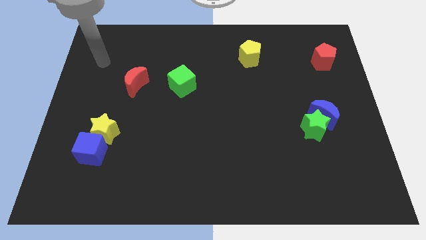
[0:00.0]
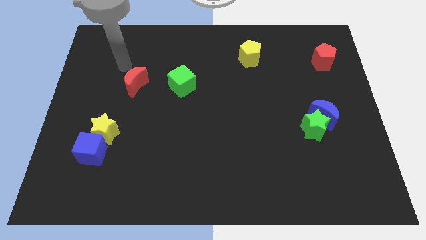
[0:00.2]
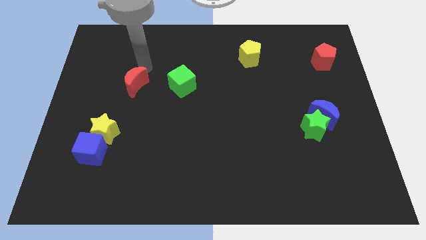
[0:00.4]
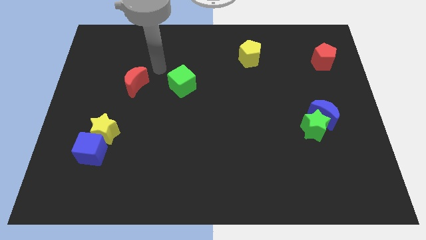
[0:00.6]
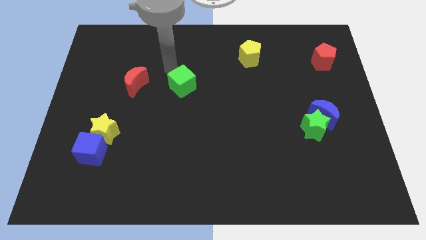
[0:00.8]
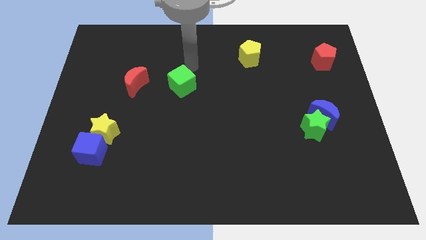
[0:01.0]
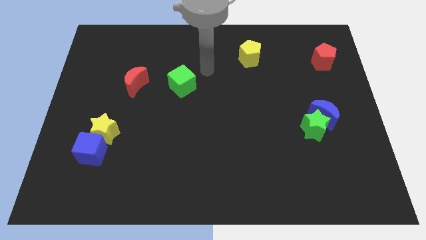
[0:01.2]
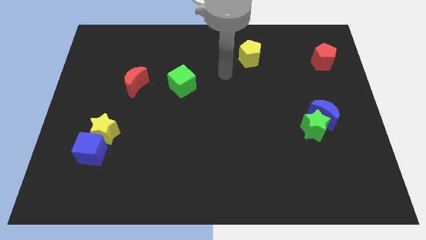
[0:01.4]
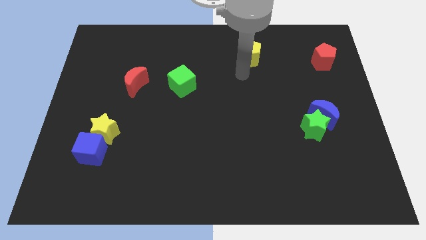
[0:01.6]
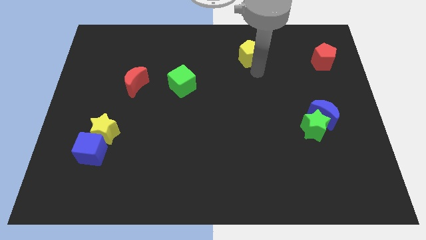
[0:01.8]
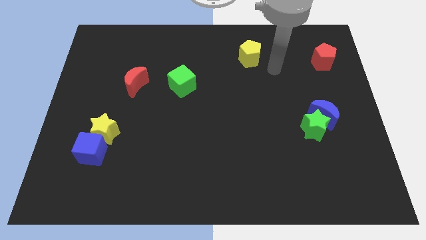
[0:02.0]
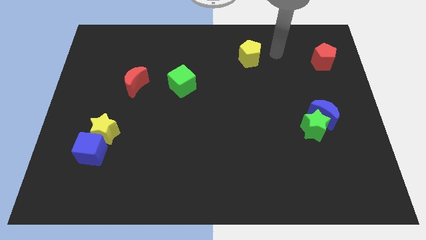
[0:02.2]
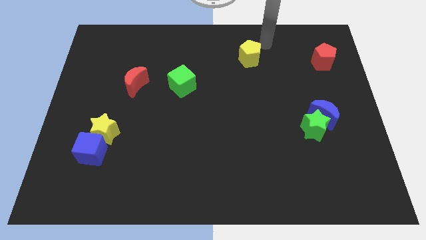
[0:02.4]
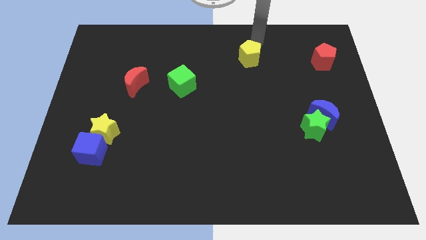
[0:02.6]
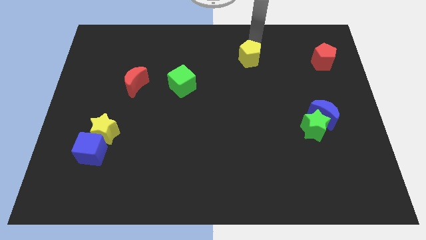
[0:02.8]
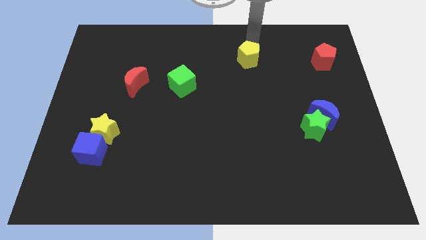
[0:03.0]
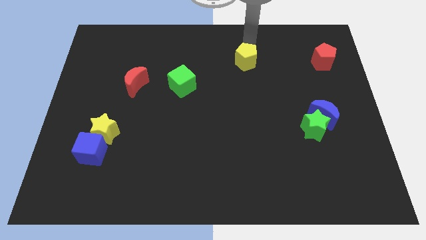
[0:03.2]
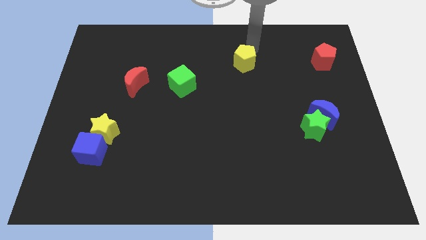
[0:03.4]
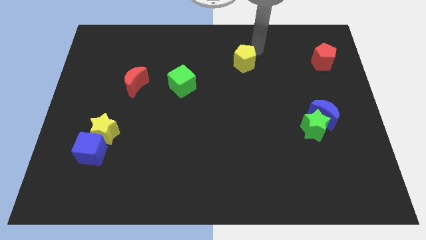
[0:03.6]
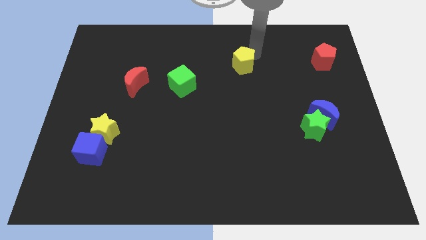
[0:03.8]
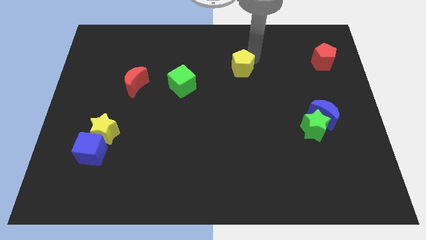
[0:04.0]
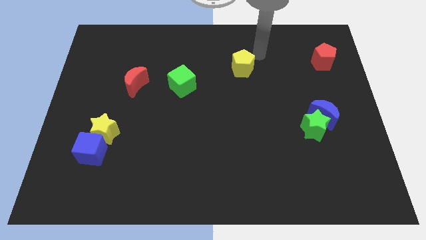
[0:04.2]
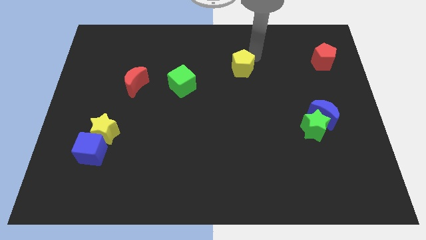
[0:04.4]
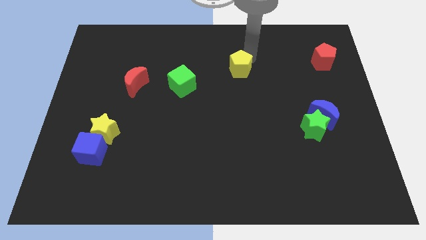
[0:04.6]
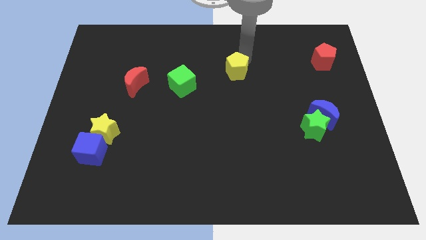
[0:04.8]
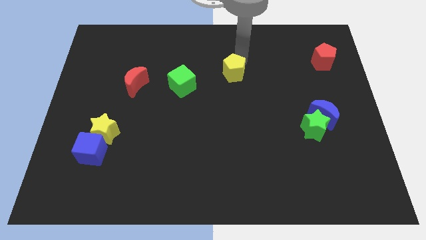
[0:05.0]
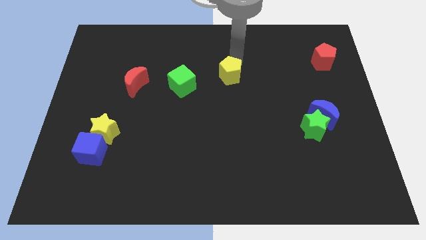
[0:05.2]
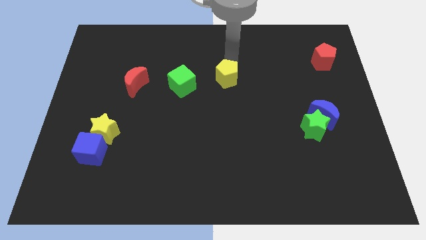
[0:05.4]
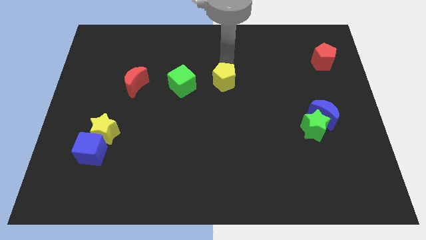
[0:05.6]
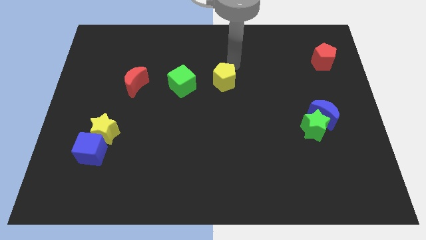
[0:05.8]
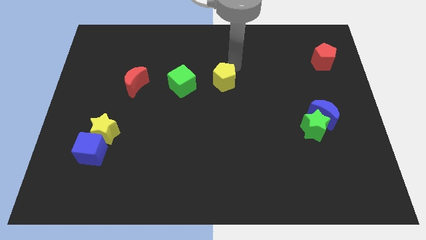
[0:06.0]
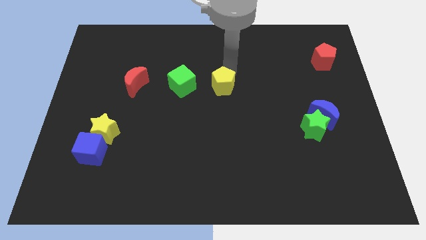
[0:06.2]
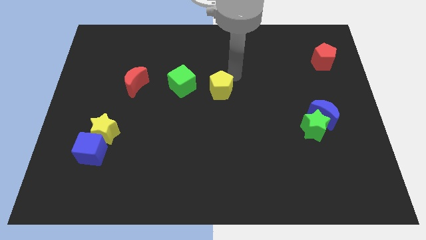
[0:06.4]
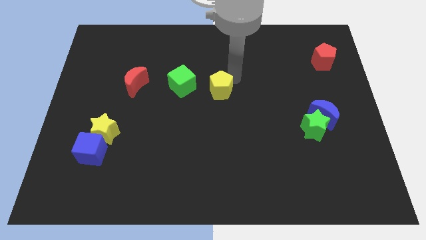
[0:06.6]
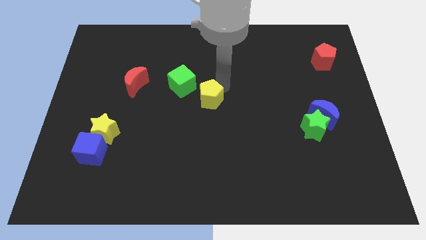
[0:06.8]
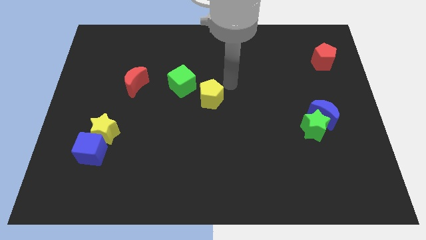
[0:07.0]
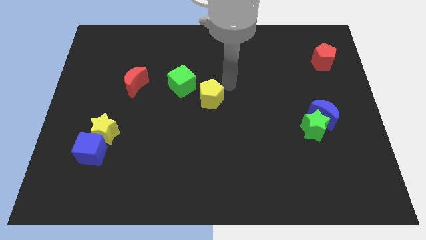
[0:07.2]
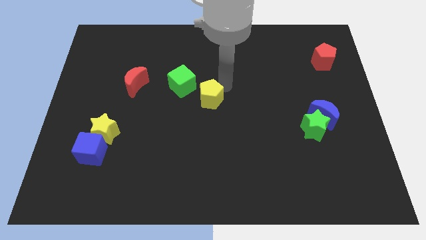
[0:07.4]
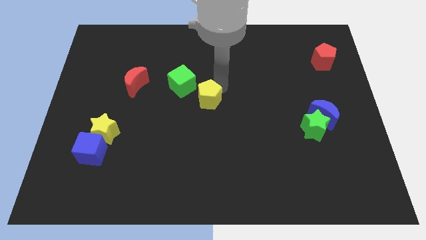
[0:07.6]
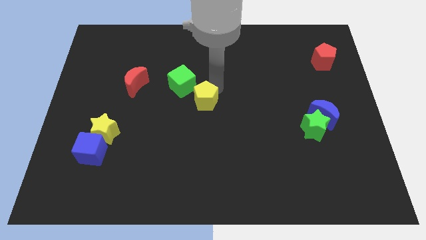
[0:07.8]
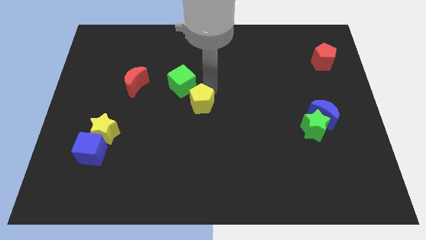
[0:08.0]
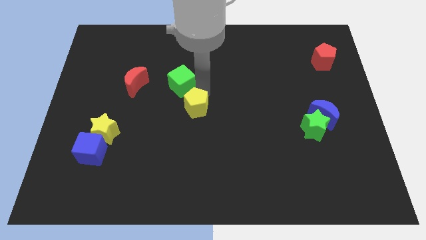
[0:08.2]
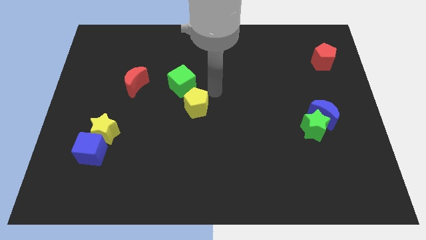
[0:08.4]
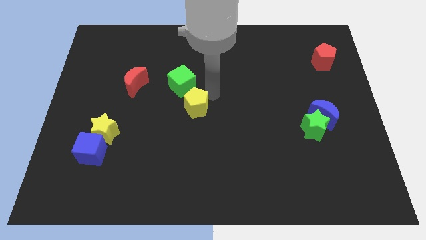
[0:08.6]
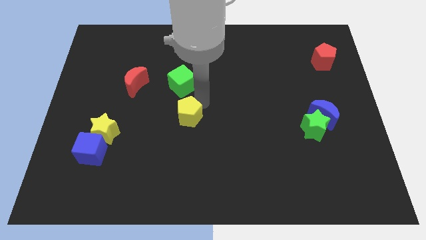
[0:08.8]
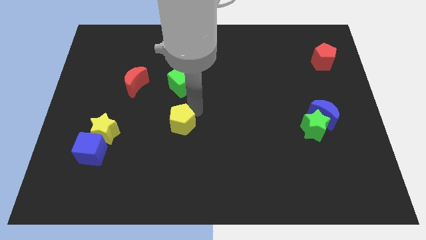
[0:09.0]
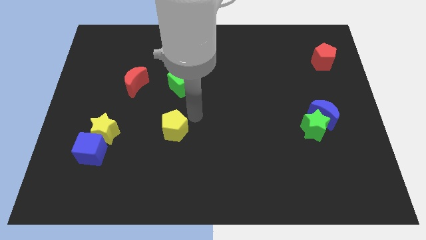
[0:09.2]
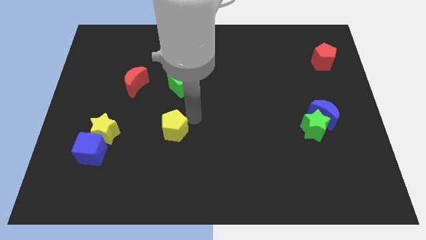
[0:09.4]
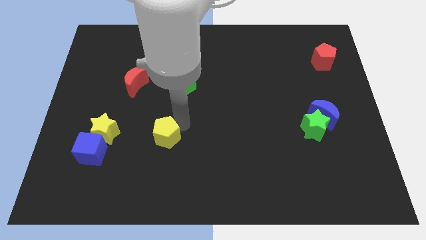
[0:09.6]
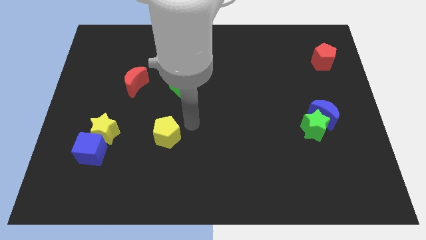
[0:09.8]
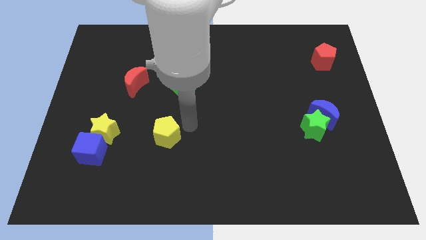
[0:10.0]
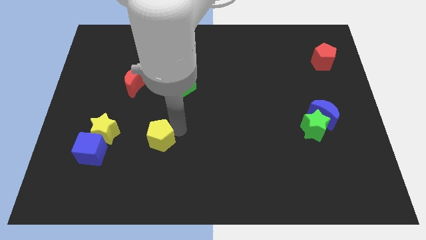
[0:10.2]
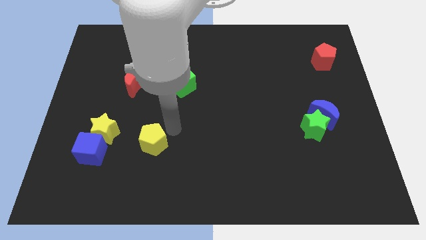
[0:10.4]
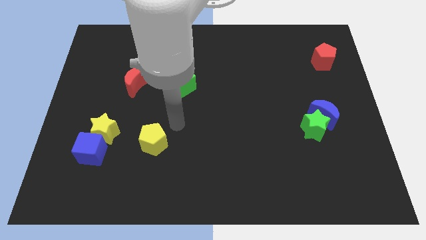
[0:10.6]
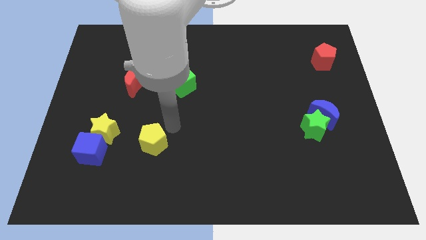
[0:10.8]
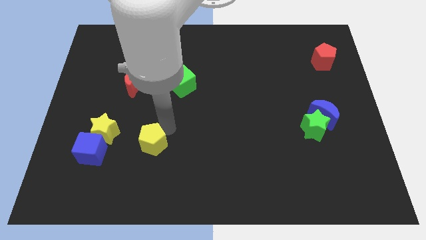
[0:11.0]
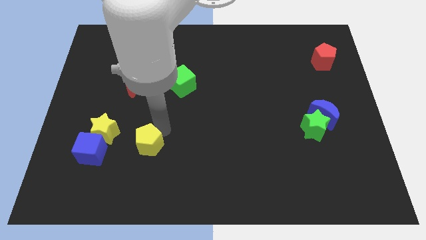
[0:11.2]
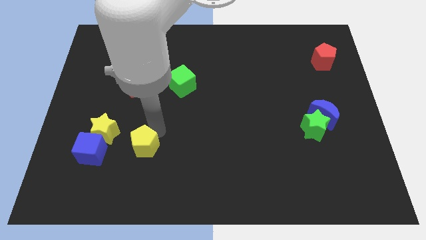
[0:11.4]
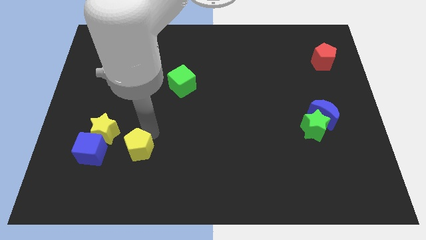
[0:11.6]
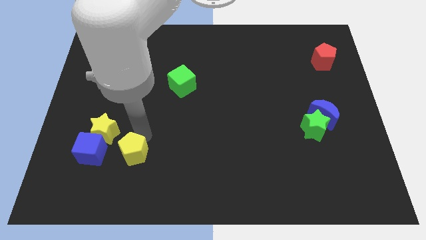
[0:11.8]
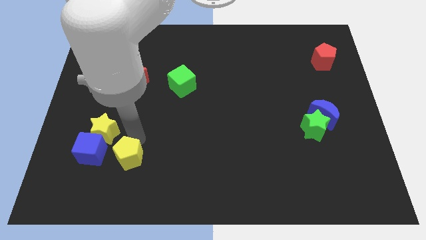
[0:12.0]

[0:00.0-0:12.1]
put the yellow pentagon diagonally down and to the right of the blue cube

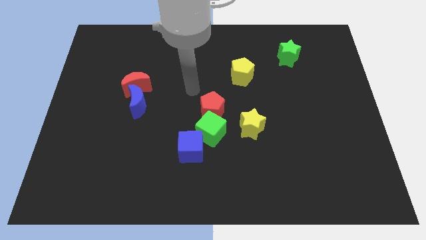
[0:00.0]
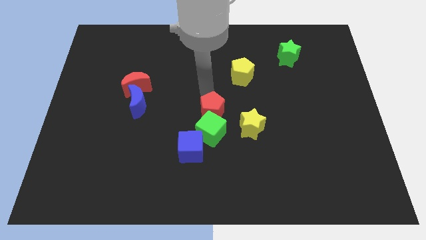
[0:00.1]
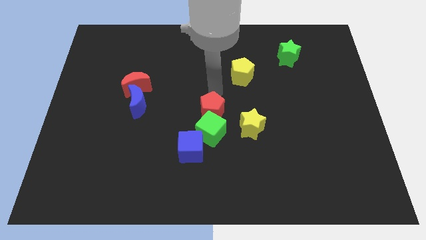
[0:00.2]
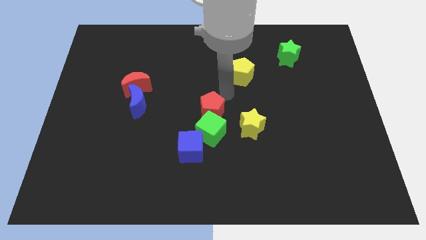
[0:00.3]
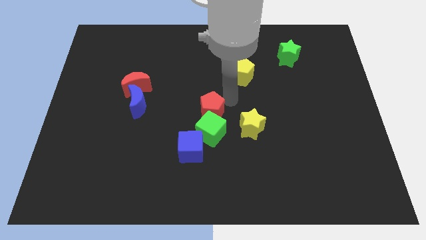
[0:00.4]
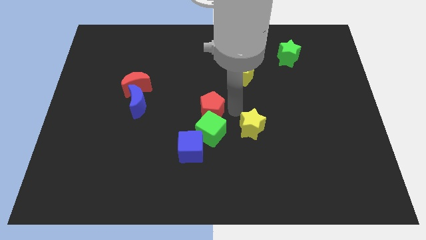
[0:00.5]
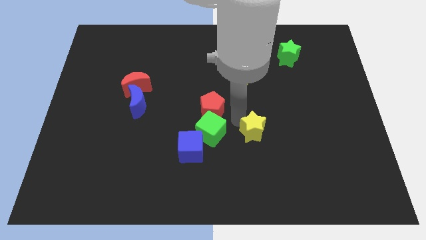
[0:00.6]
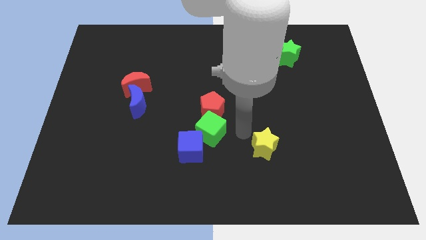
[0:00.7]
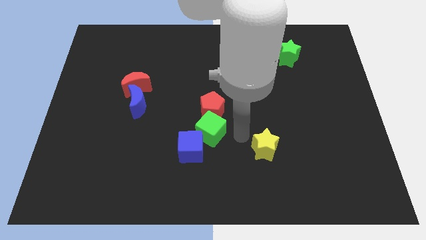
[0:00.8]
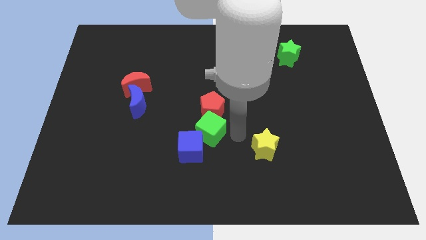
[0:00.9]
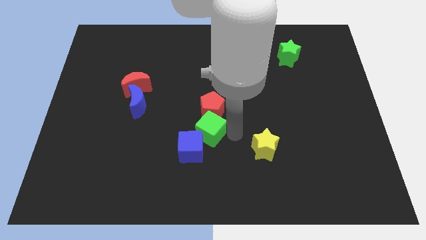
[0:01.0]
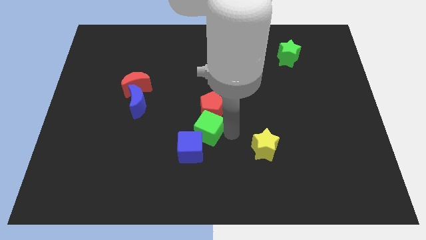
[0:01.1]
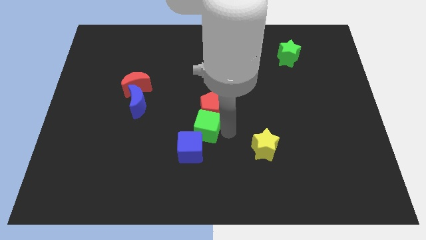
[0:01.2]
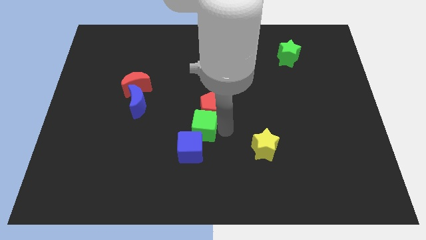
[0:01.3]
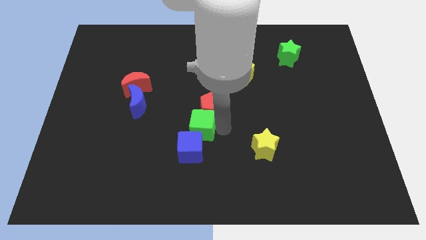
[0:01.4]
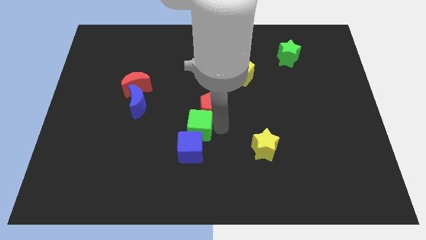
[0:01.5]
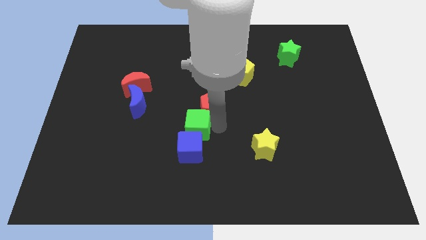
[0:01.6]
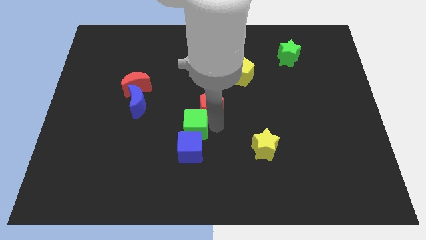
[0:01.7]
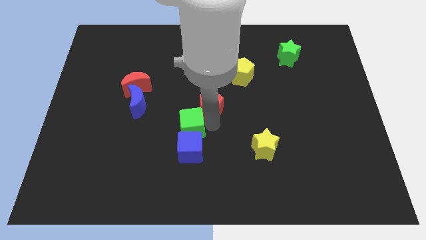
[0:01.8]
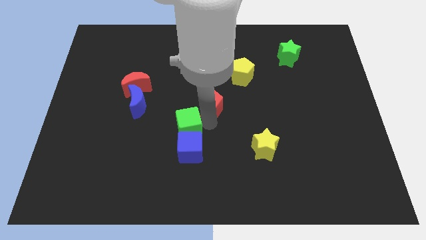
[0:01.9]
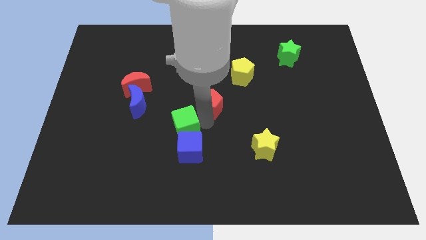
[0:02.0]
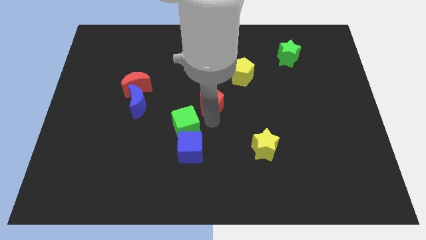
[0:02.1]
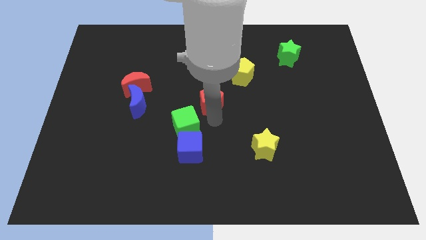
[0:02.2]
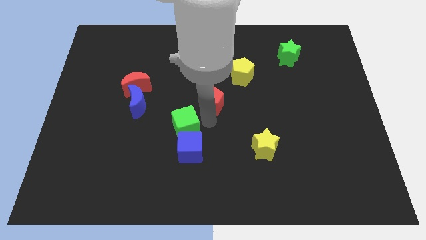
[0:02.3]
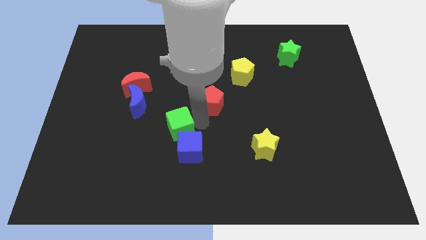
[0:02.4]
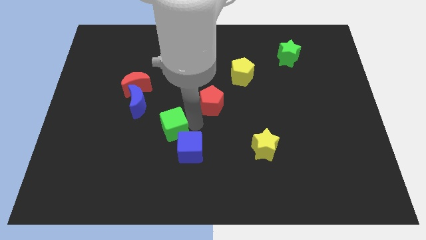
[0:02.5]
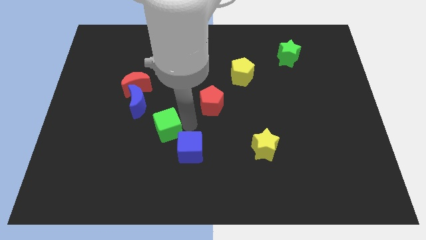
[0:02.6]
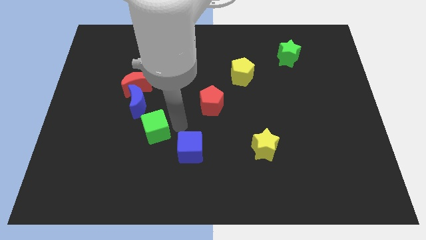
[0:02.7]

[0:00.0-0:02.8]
slide the green cube to the bottom of the blue moon
